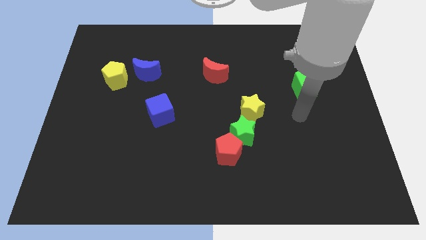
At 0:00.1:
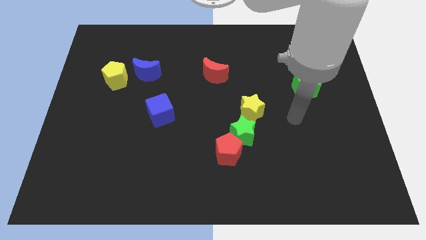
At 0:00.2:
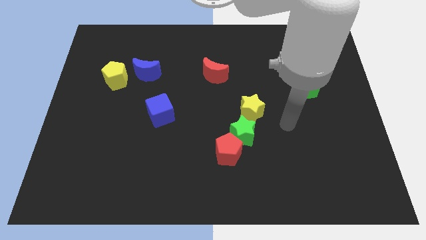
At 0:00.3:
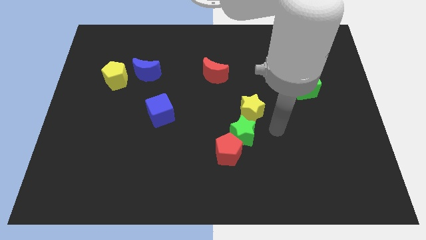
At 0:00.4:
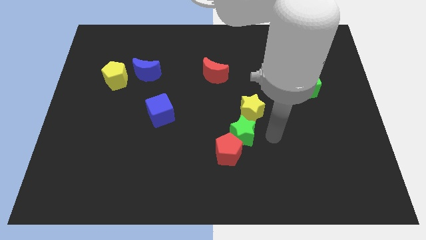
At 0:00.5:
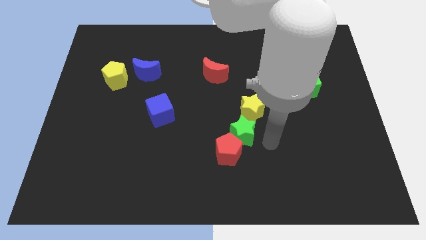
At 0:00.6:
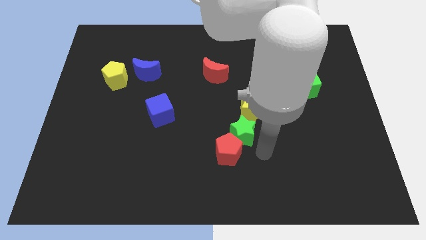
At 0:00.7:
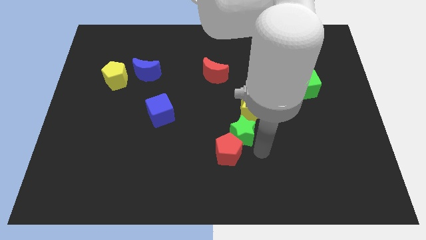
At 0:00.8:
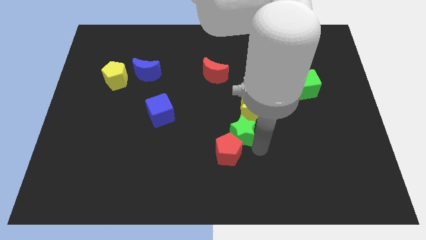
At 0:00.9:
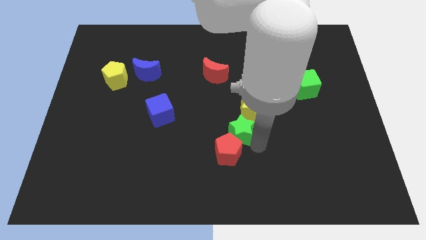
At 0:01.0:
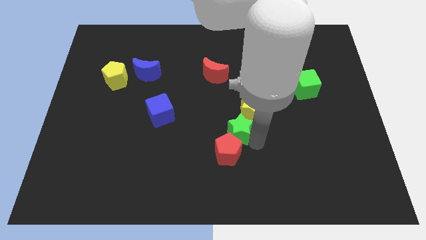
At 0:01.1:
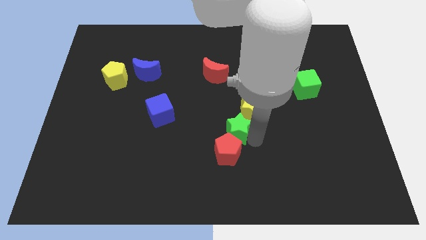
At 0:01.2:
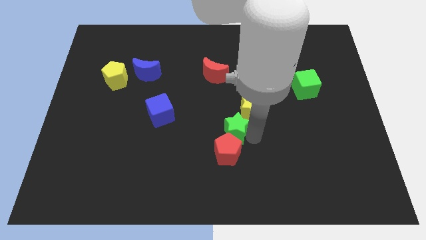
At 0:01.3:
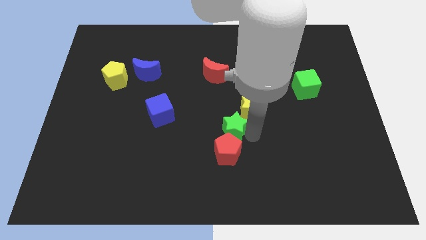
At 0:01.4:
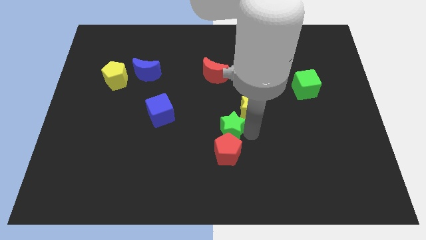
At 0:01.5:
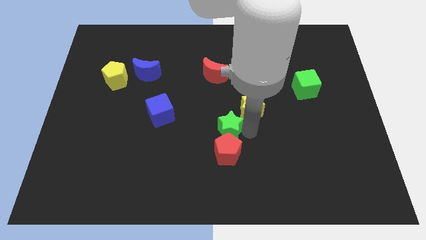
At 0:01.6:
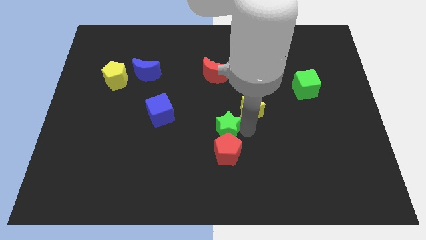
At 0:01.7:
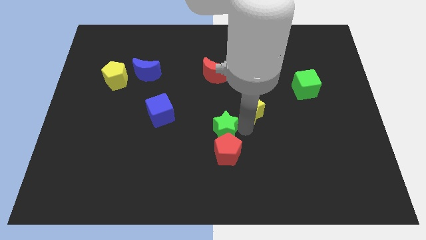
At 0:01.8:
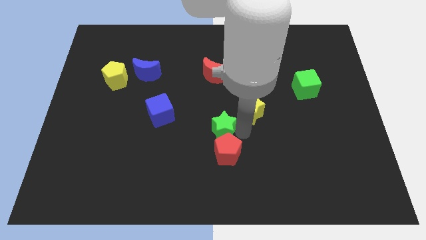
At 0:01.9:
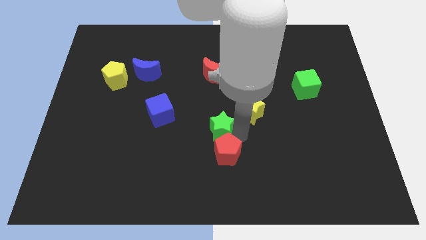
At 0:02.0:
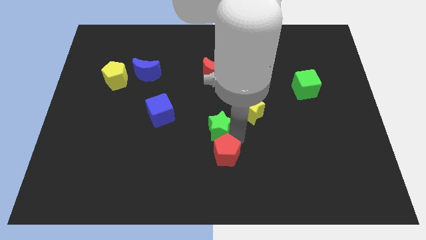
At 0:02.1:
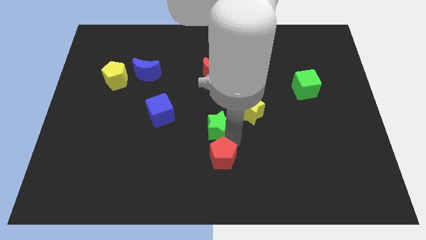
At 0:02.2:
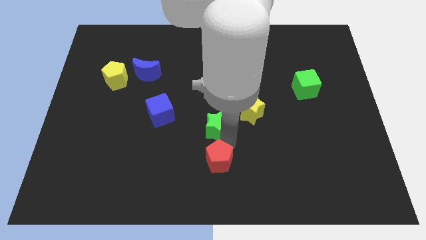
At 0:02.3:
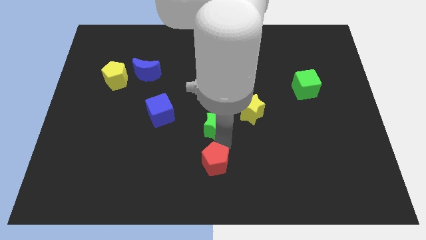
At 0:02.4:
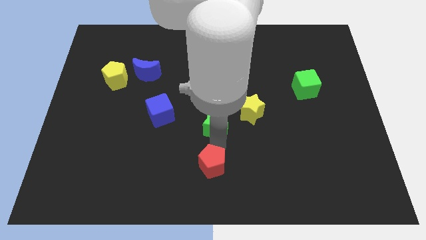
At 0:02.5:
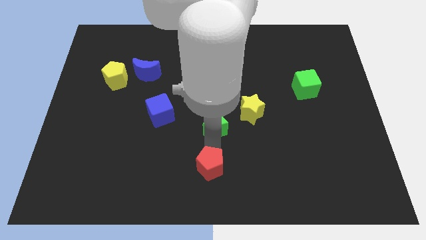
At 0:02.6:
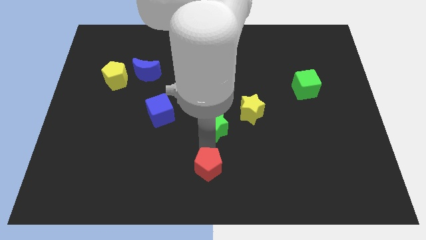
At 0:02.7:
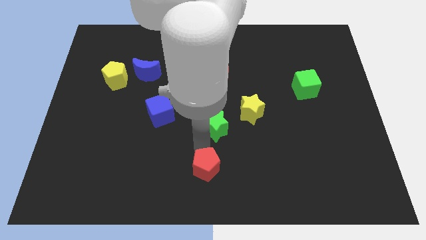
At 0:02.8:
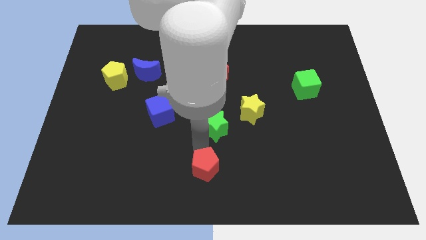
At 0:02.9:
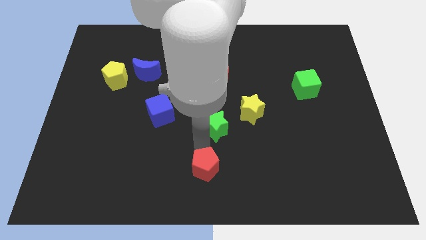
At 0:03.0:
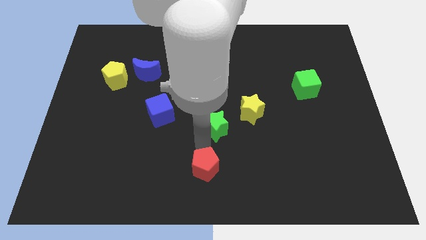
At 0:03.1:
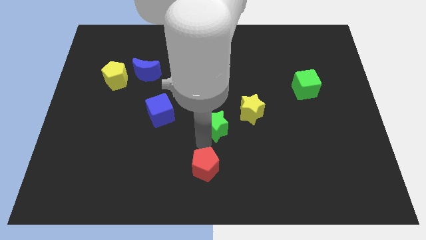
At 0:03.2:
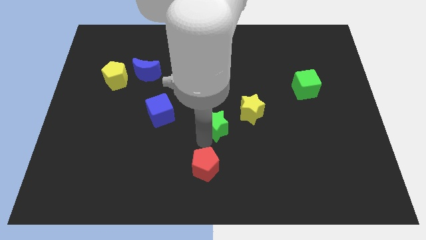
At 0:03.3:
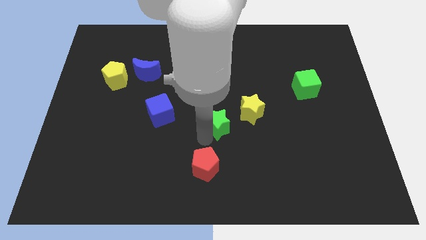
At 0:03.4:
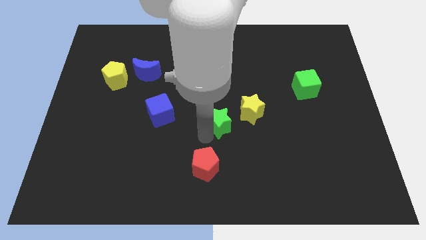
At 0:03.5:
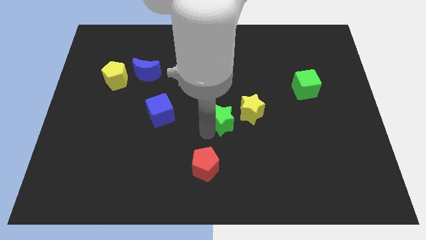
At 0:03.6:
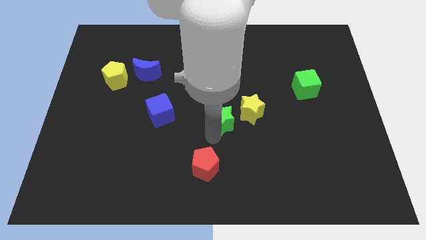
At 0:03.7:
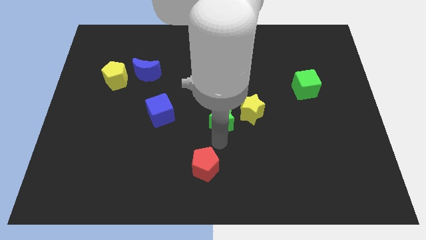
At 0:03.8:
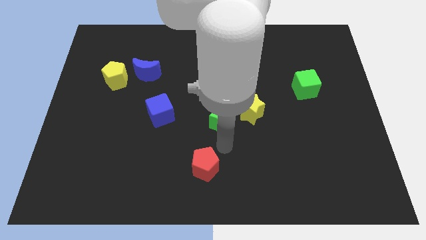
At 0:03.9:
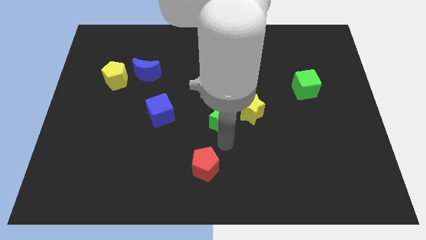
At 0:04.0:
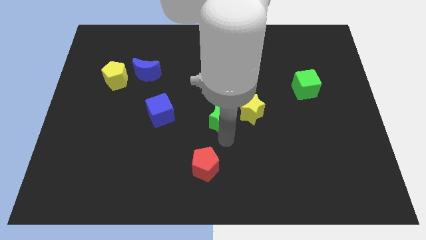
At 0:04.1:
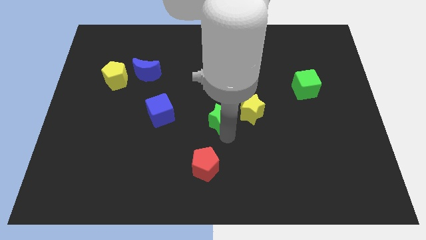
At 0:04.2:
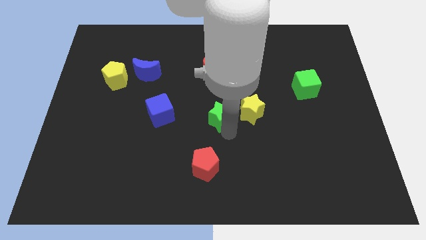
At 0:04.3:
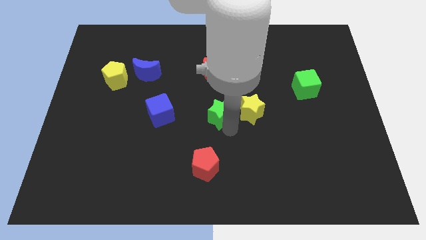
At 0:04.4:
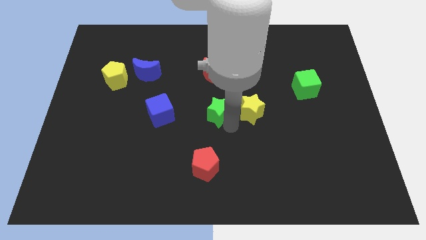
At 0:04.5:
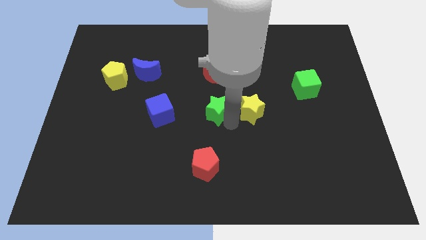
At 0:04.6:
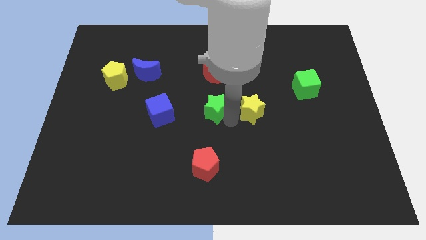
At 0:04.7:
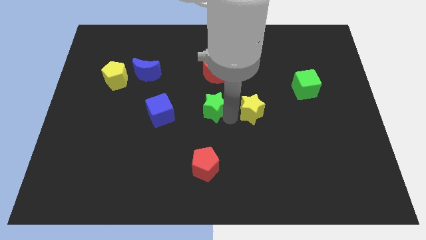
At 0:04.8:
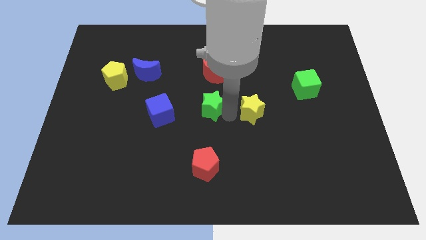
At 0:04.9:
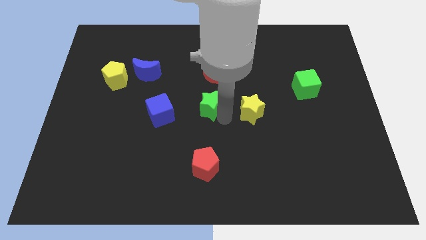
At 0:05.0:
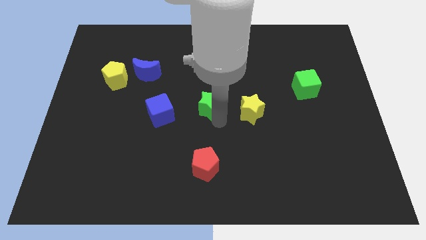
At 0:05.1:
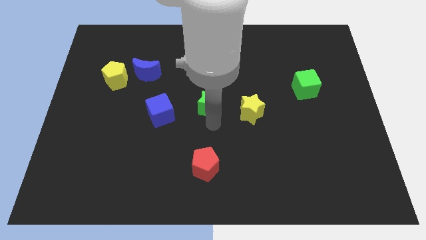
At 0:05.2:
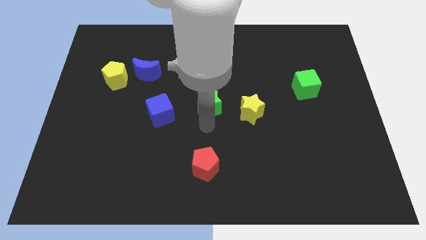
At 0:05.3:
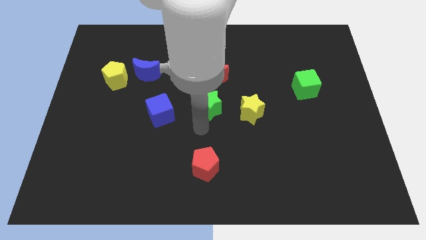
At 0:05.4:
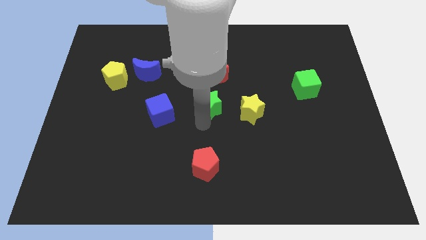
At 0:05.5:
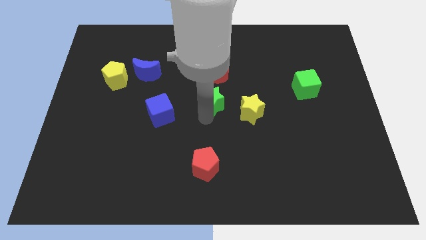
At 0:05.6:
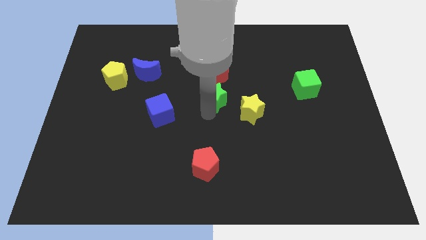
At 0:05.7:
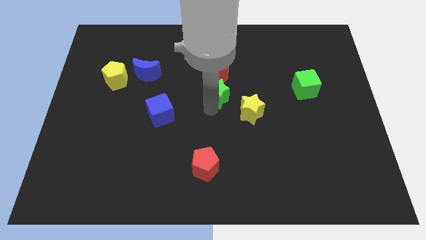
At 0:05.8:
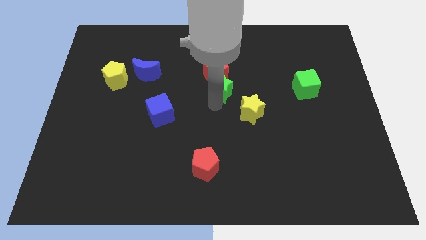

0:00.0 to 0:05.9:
move the green star next to the red moon

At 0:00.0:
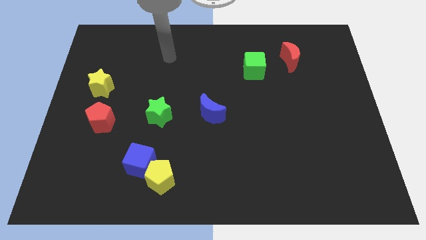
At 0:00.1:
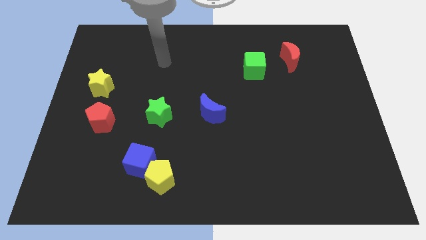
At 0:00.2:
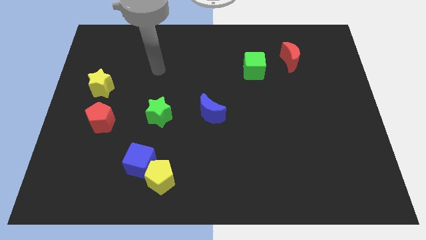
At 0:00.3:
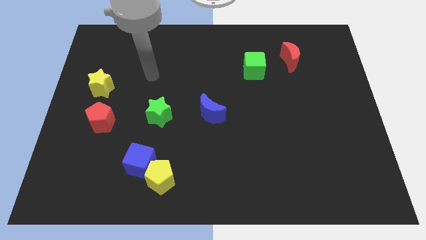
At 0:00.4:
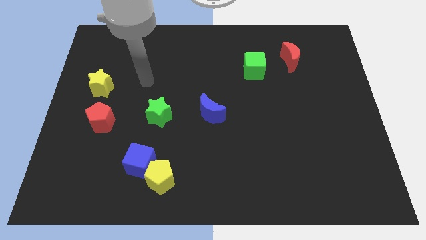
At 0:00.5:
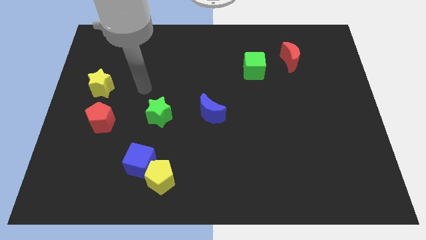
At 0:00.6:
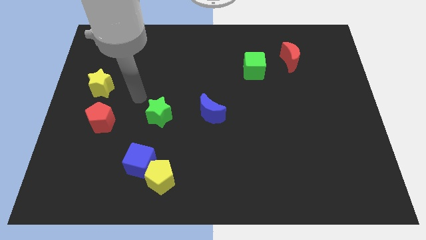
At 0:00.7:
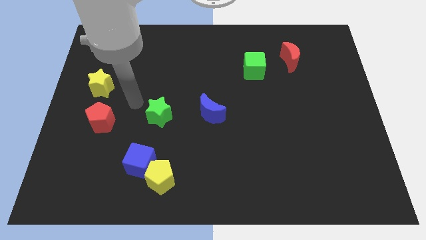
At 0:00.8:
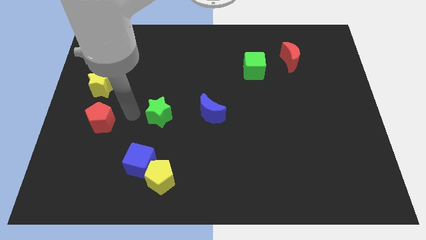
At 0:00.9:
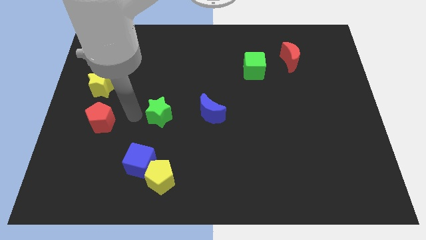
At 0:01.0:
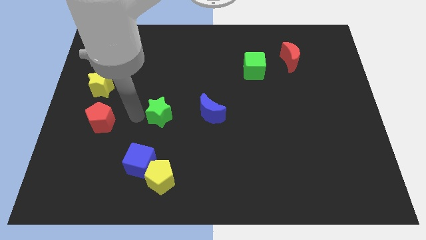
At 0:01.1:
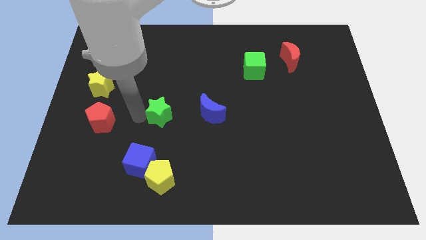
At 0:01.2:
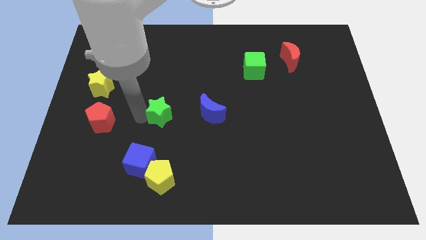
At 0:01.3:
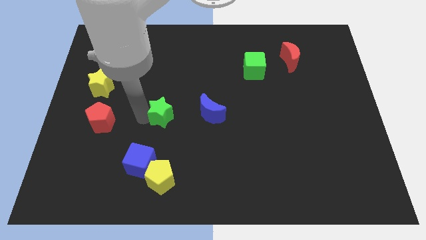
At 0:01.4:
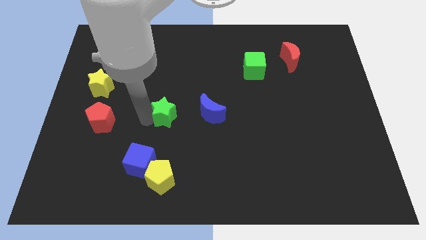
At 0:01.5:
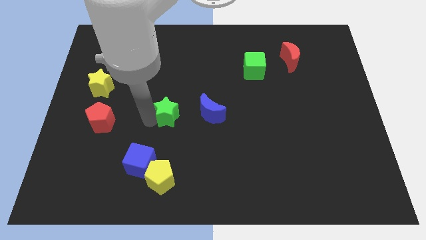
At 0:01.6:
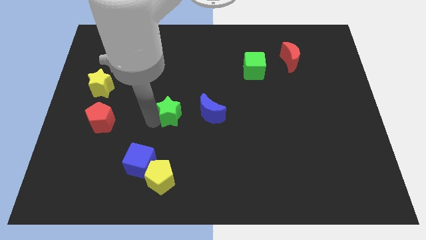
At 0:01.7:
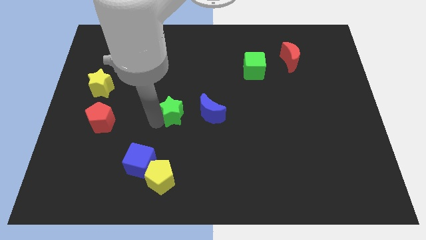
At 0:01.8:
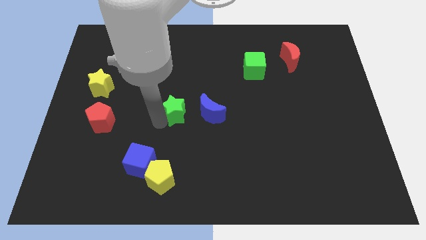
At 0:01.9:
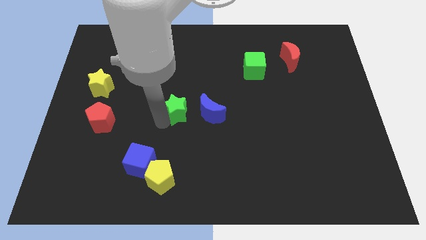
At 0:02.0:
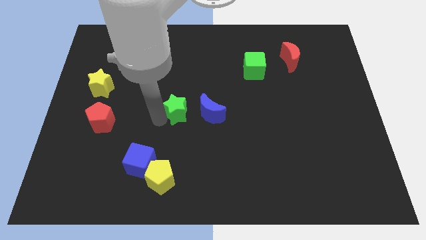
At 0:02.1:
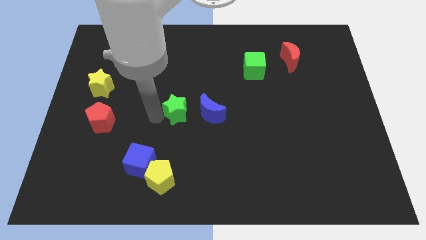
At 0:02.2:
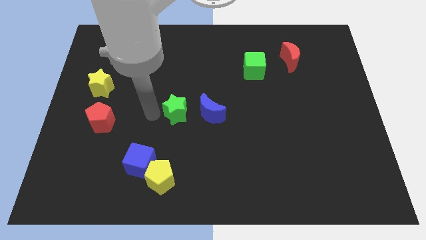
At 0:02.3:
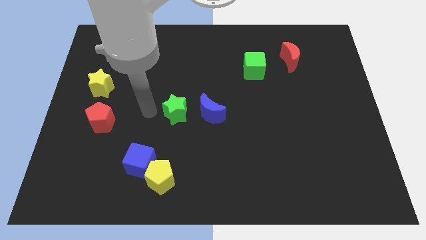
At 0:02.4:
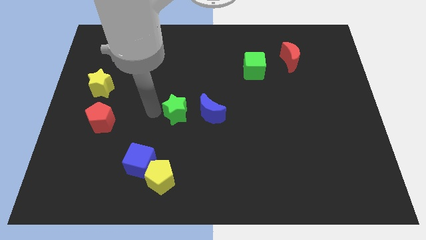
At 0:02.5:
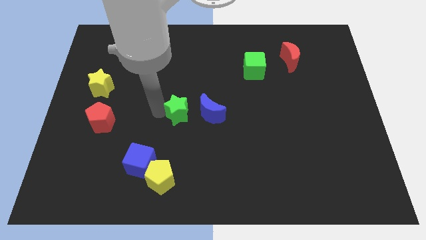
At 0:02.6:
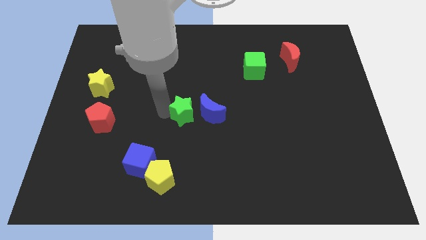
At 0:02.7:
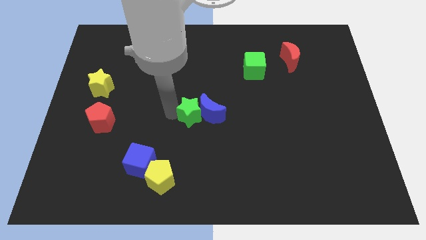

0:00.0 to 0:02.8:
push the green star close to the blue moon
